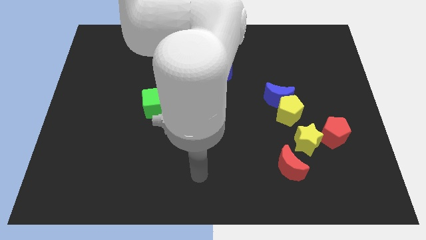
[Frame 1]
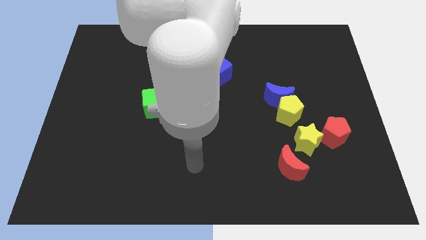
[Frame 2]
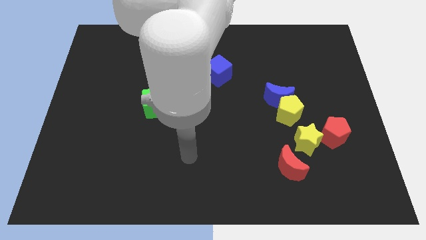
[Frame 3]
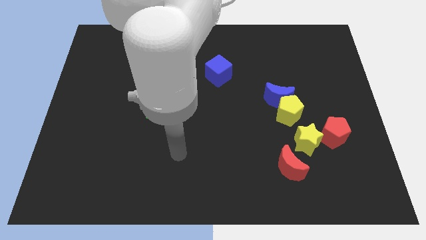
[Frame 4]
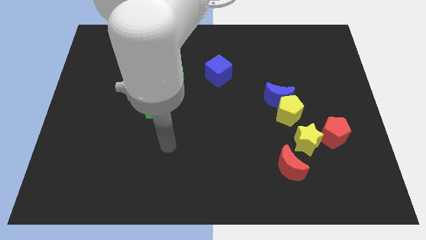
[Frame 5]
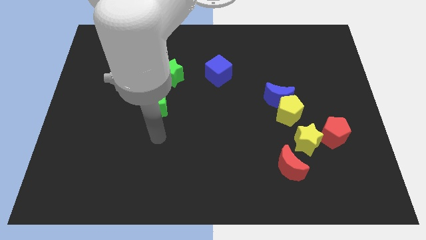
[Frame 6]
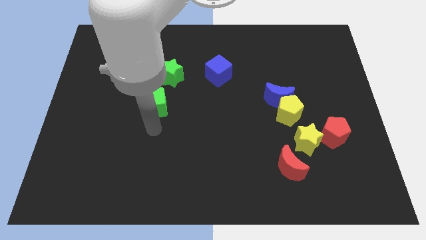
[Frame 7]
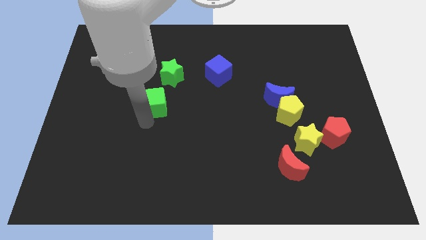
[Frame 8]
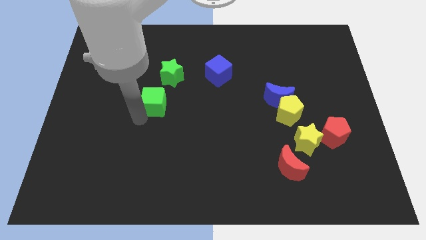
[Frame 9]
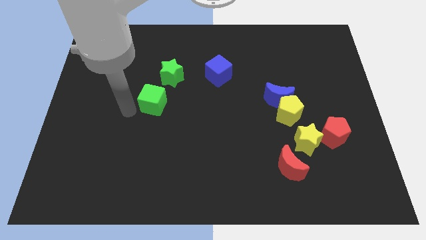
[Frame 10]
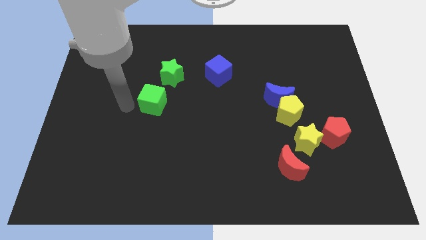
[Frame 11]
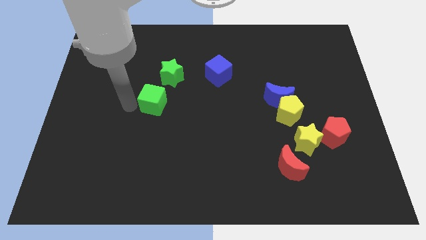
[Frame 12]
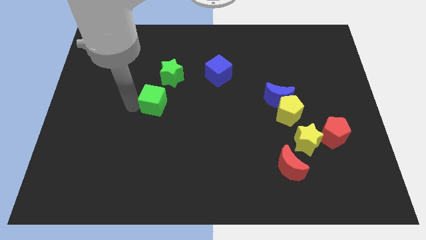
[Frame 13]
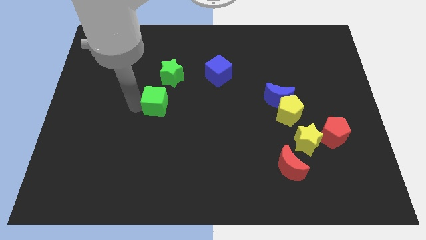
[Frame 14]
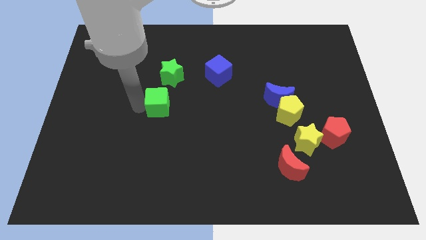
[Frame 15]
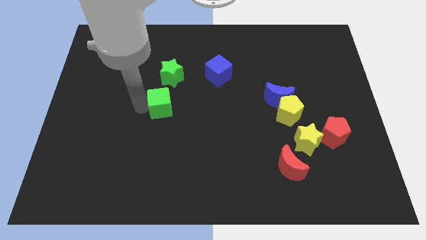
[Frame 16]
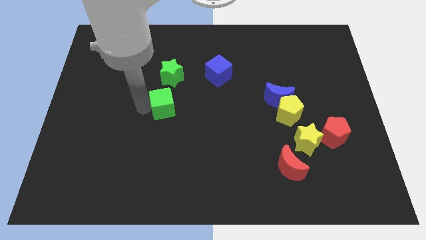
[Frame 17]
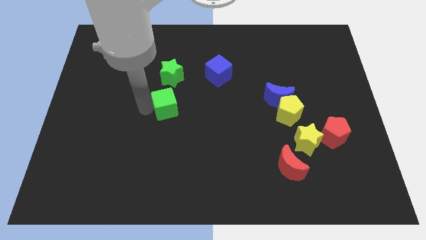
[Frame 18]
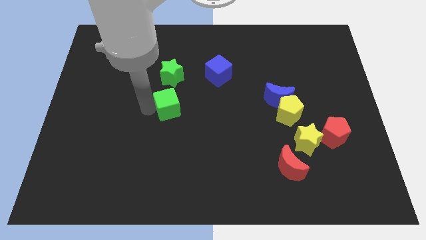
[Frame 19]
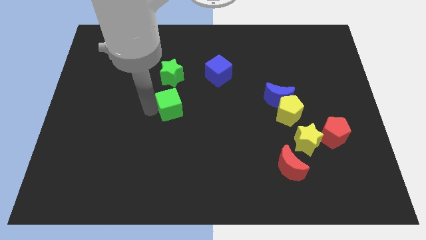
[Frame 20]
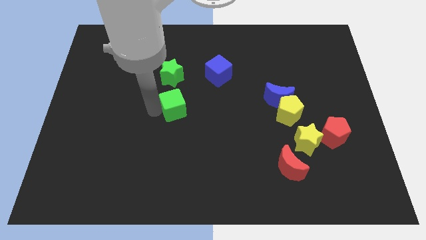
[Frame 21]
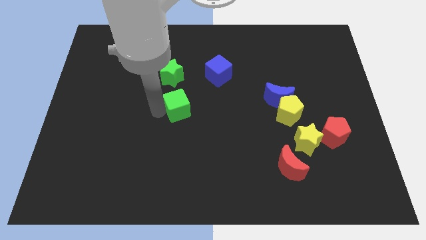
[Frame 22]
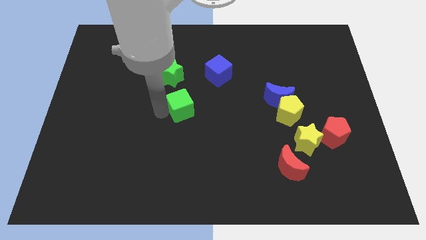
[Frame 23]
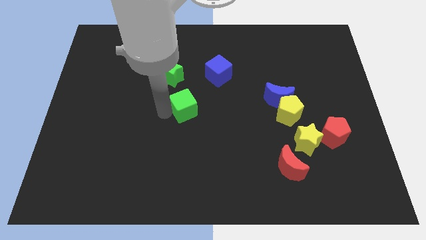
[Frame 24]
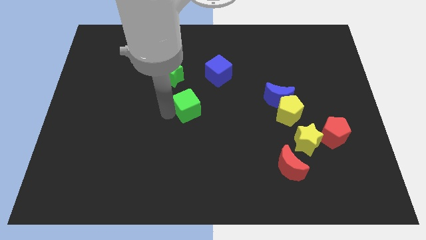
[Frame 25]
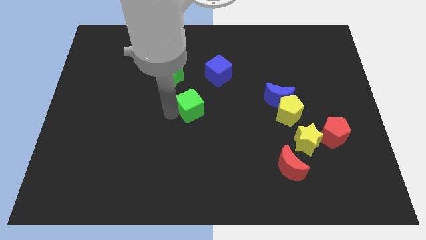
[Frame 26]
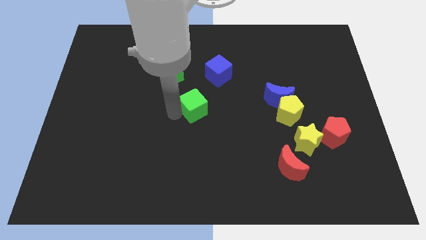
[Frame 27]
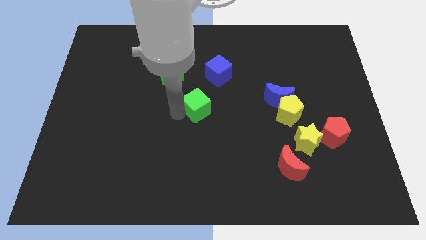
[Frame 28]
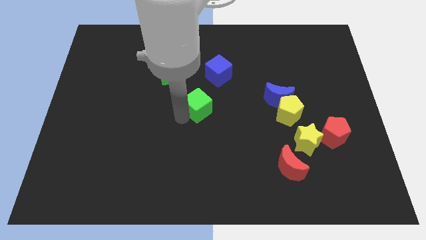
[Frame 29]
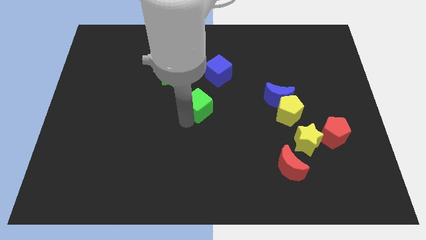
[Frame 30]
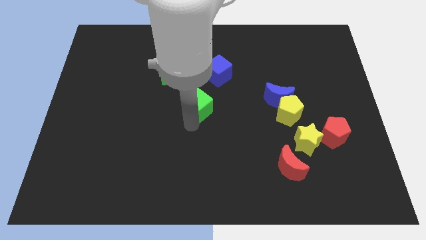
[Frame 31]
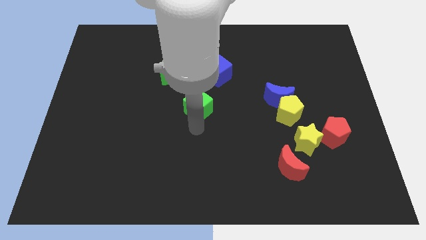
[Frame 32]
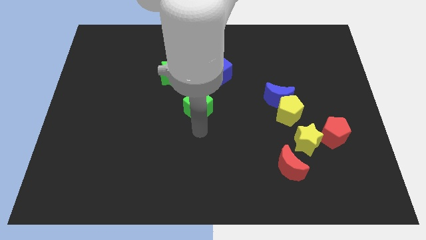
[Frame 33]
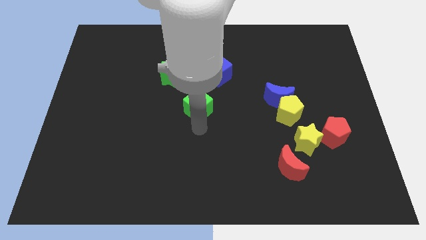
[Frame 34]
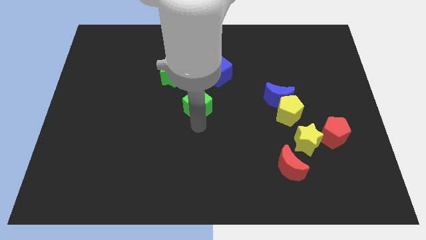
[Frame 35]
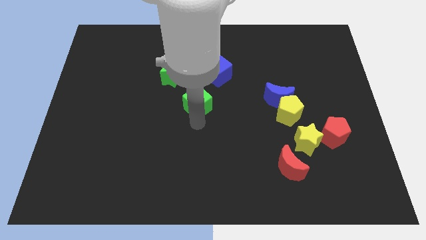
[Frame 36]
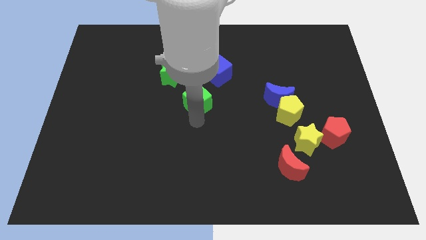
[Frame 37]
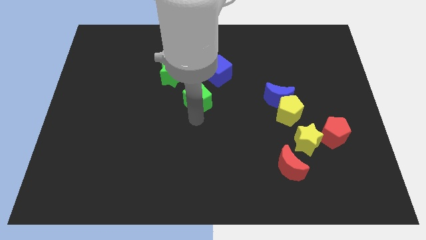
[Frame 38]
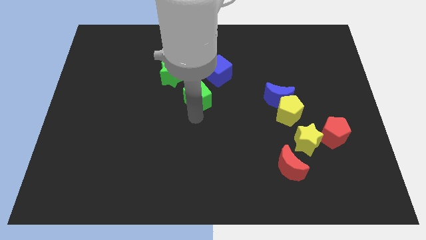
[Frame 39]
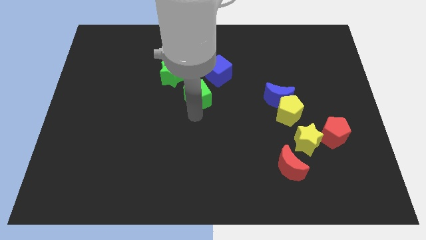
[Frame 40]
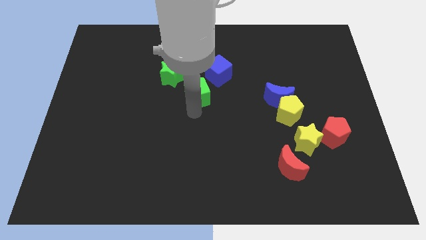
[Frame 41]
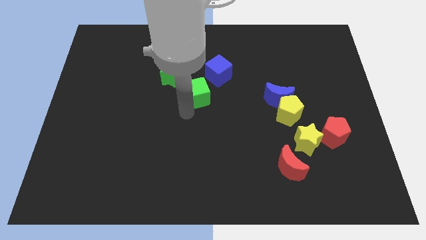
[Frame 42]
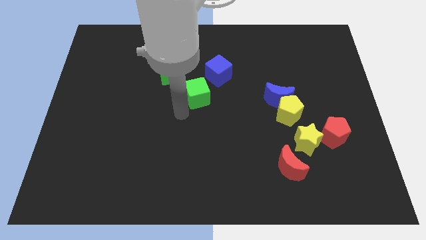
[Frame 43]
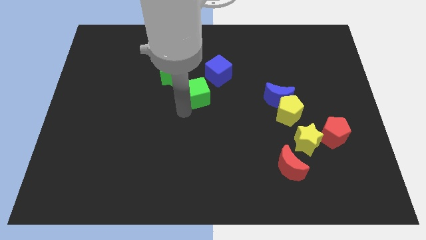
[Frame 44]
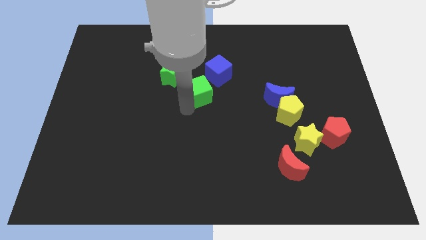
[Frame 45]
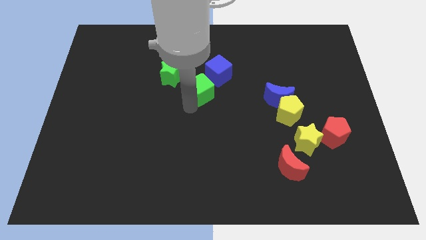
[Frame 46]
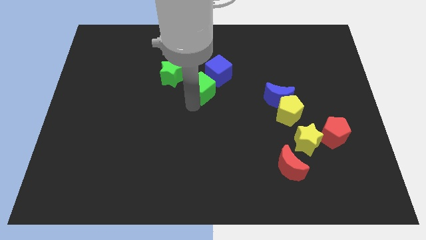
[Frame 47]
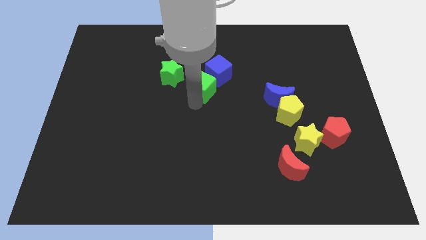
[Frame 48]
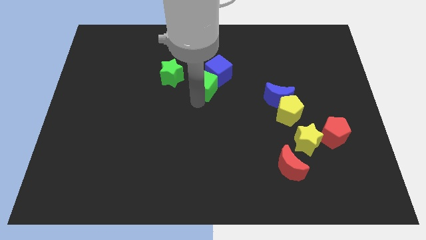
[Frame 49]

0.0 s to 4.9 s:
push the green cube towards the blue cube

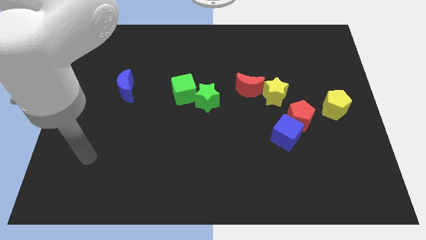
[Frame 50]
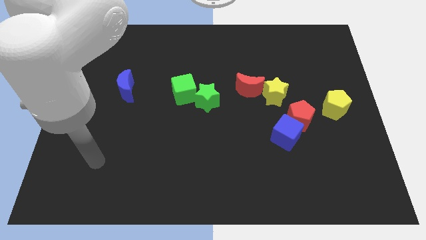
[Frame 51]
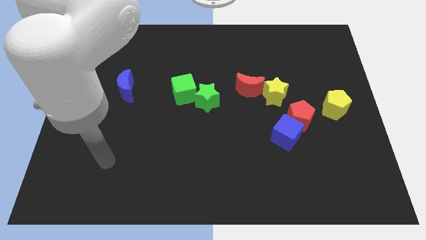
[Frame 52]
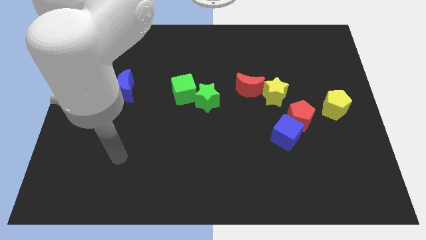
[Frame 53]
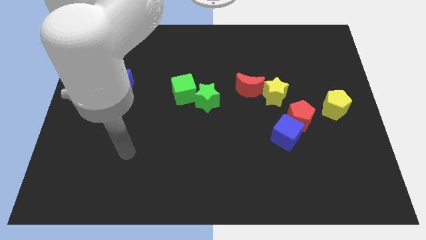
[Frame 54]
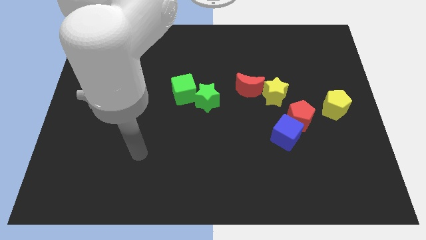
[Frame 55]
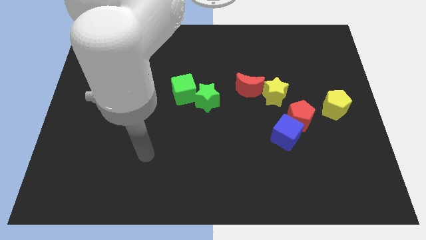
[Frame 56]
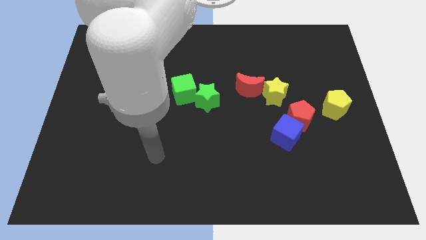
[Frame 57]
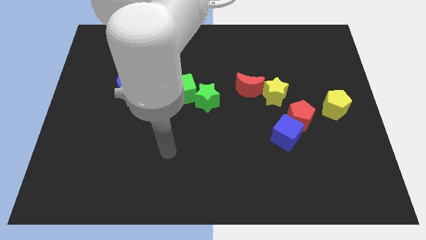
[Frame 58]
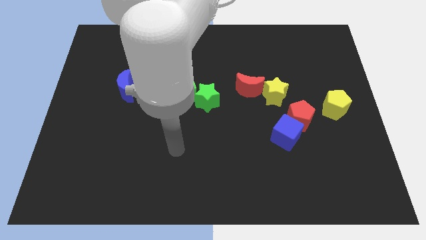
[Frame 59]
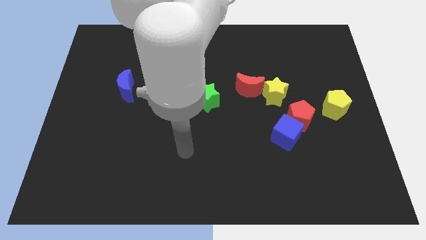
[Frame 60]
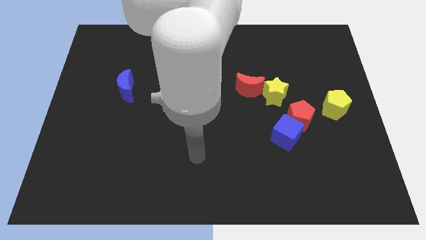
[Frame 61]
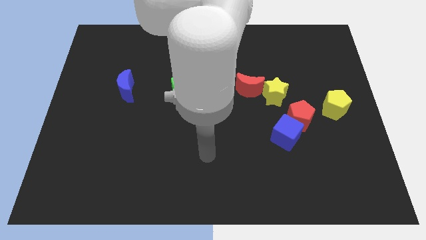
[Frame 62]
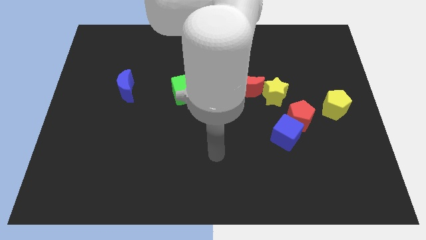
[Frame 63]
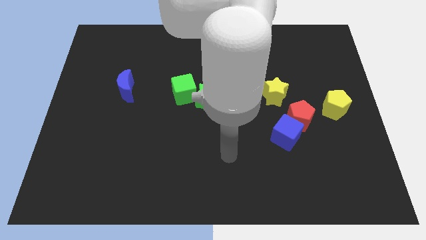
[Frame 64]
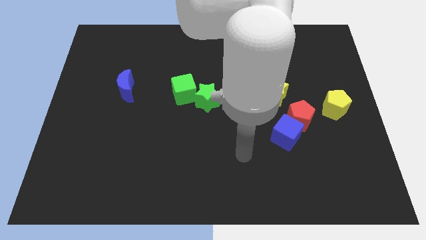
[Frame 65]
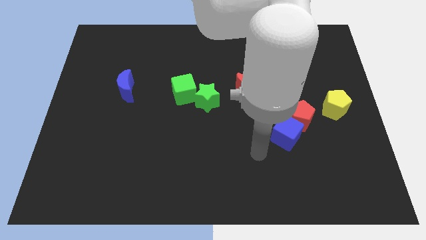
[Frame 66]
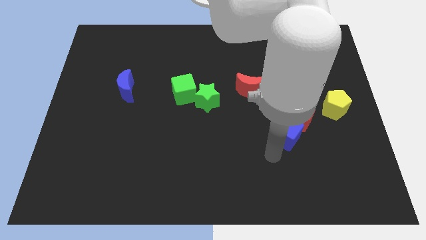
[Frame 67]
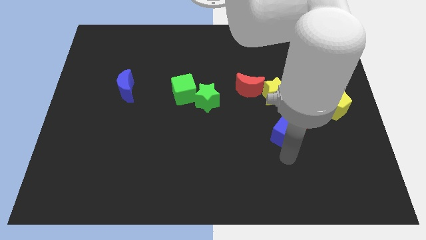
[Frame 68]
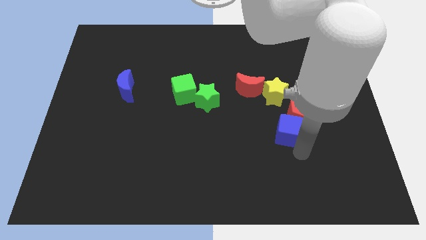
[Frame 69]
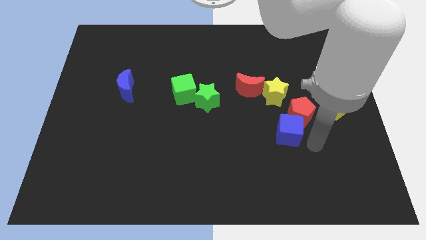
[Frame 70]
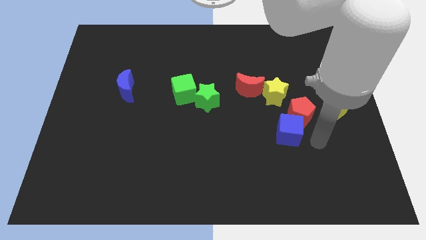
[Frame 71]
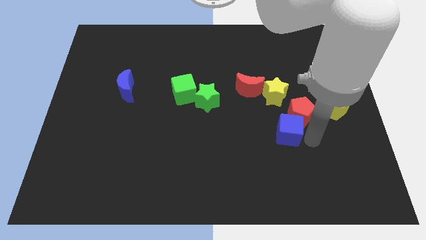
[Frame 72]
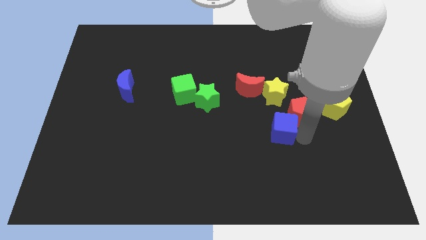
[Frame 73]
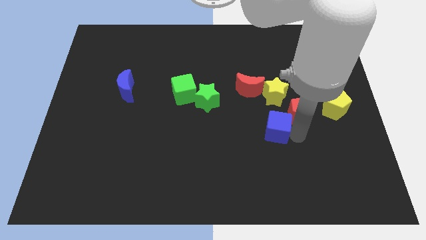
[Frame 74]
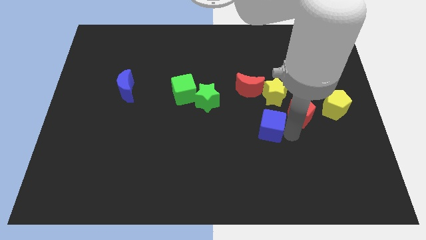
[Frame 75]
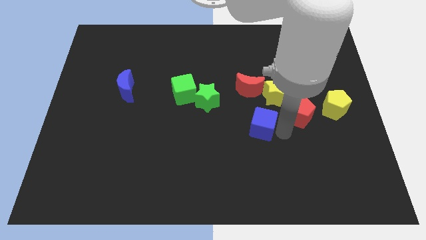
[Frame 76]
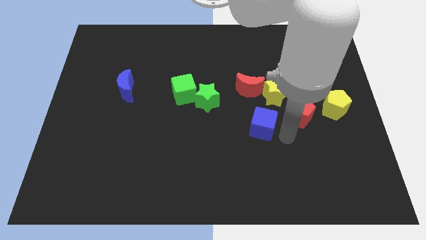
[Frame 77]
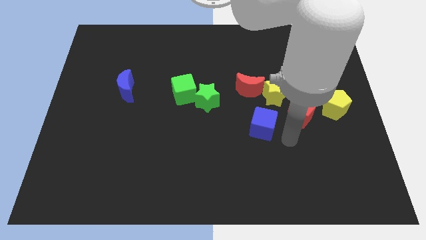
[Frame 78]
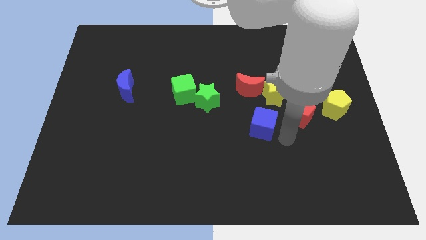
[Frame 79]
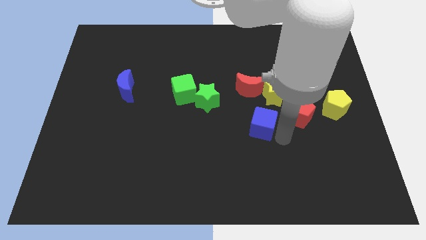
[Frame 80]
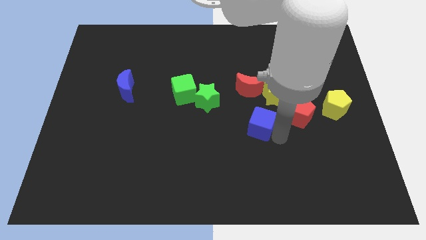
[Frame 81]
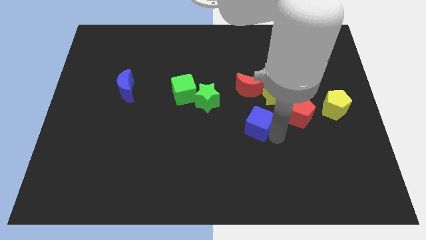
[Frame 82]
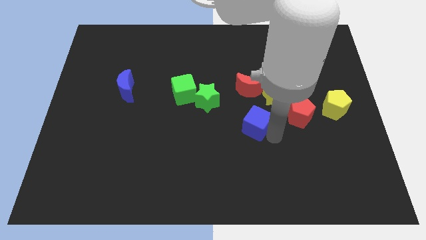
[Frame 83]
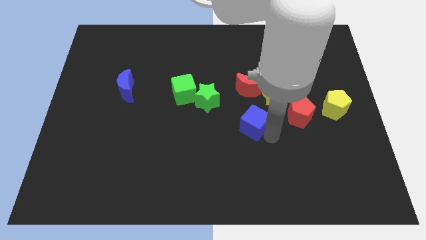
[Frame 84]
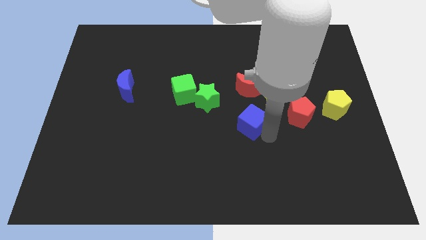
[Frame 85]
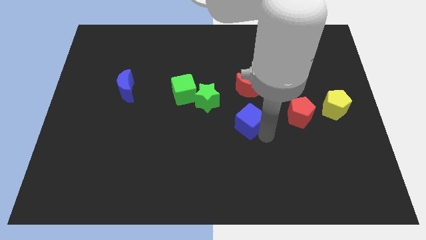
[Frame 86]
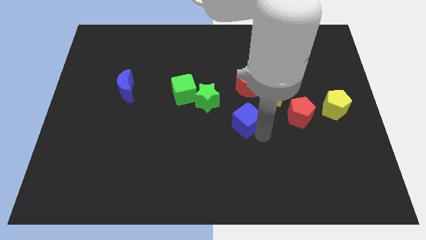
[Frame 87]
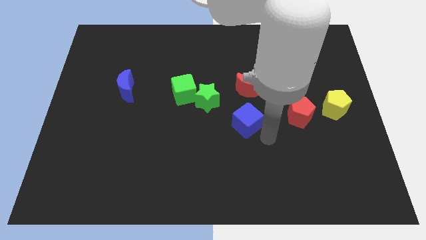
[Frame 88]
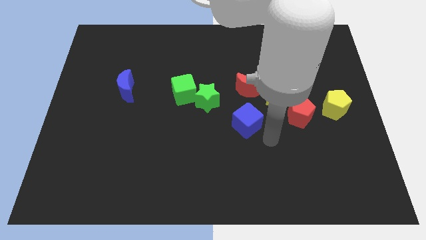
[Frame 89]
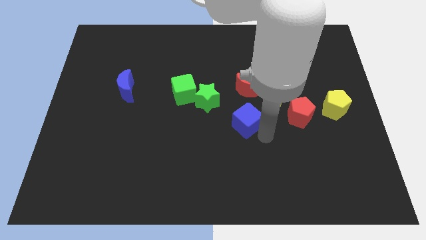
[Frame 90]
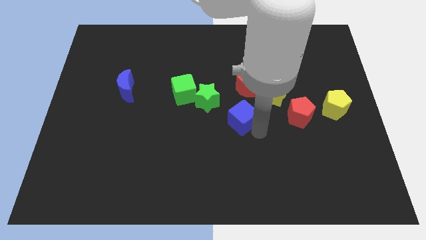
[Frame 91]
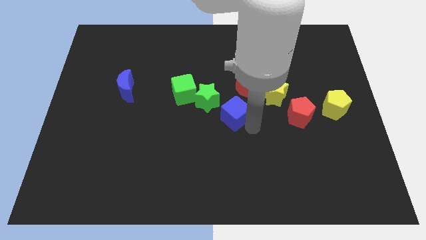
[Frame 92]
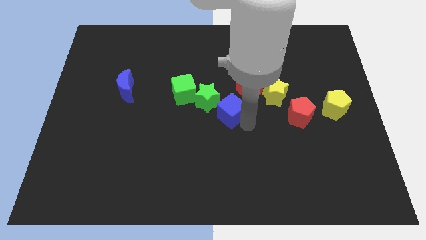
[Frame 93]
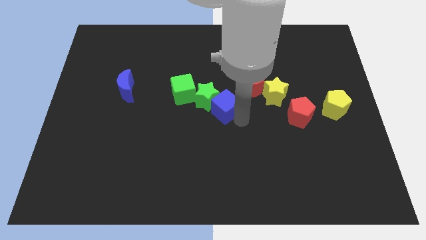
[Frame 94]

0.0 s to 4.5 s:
put the blue cube towards the green star
